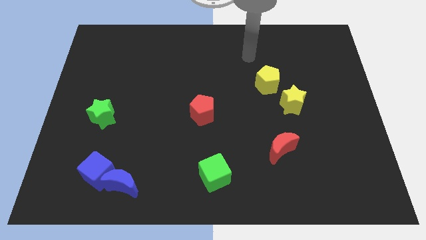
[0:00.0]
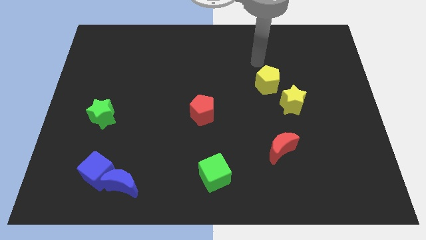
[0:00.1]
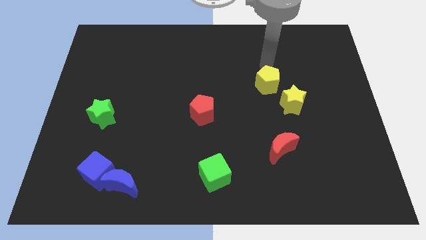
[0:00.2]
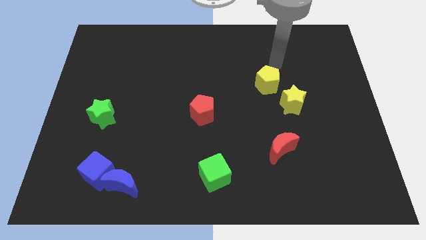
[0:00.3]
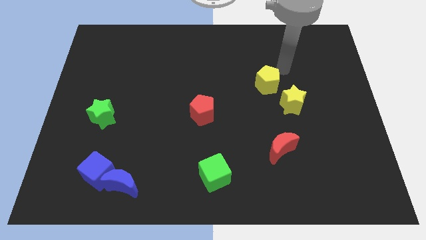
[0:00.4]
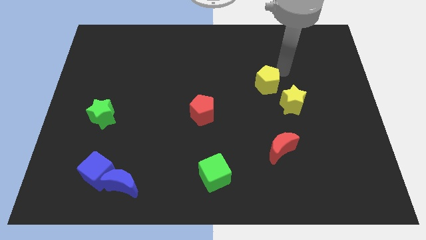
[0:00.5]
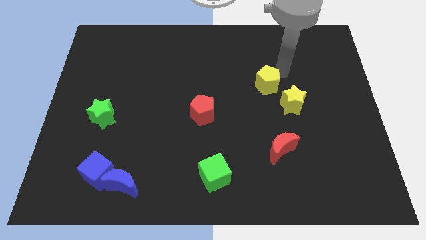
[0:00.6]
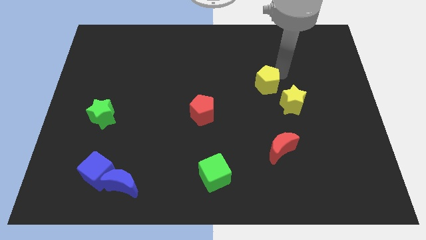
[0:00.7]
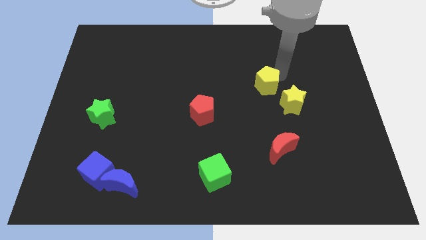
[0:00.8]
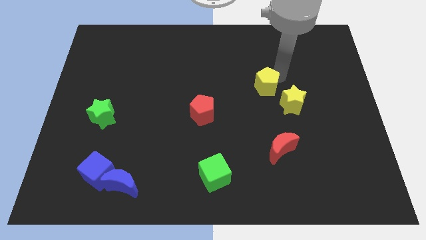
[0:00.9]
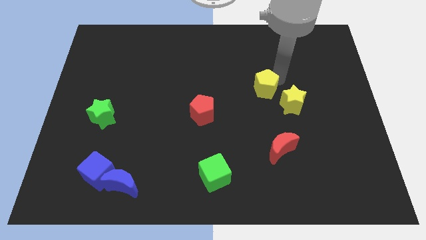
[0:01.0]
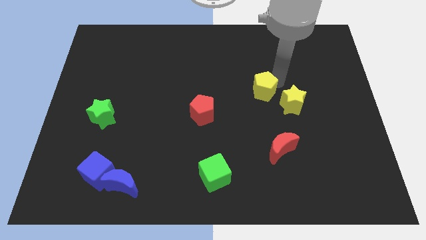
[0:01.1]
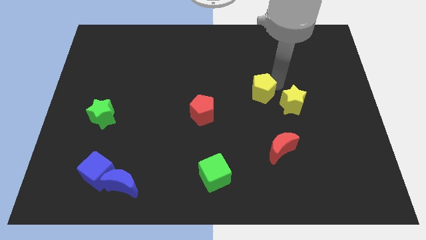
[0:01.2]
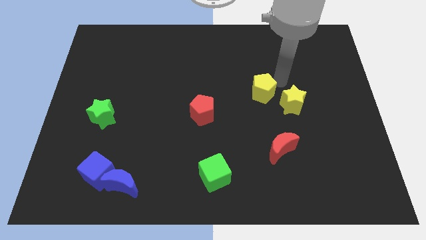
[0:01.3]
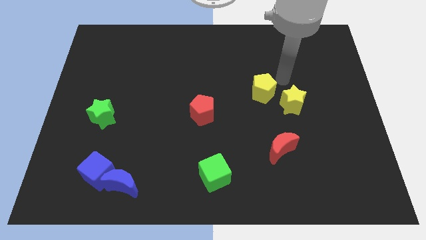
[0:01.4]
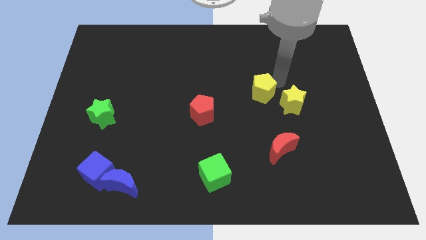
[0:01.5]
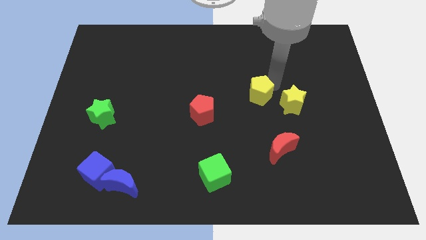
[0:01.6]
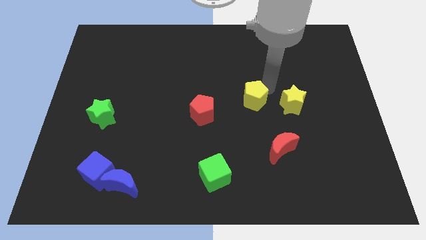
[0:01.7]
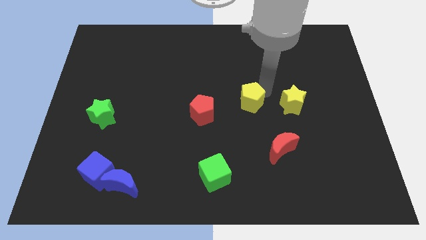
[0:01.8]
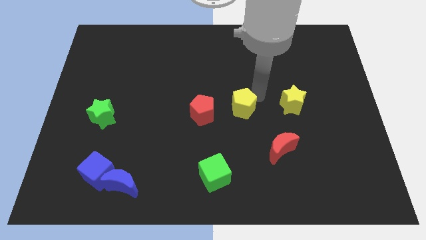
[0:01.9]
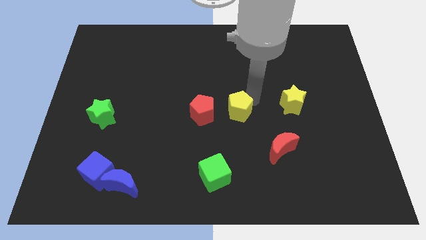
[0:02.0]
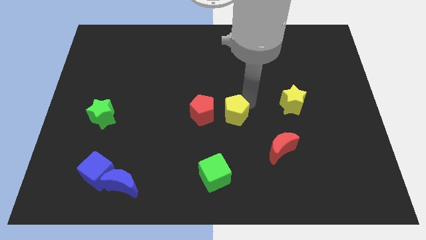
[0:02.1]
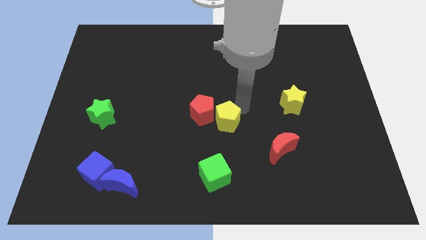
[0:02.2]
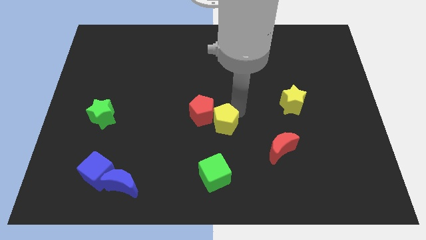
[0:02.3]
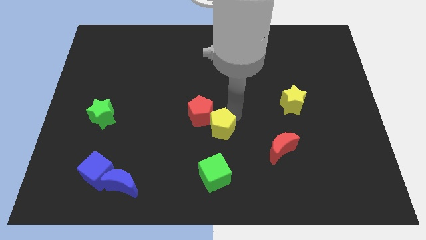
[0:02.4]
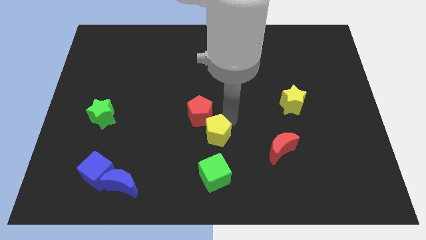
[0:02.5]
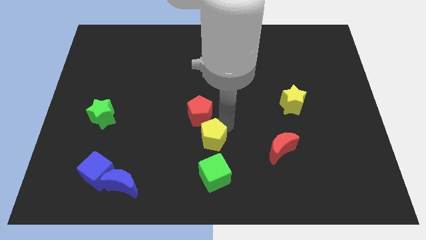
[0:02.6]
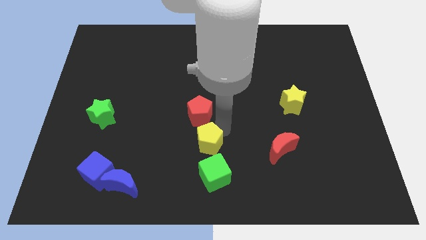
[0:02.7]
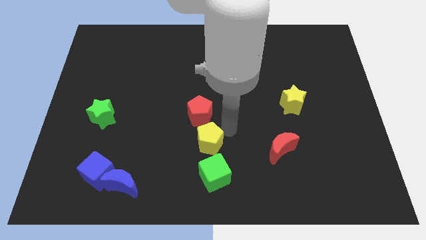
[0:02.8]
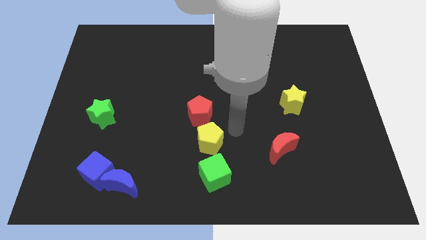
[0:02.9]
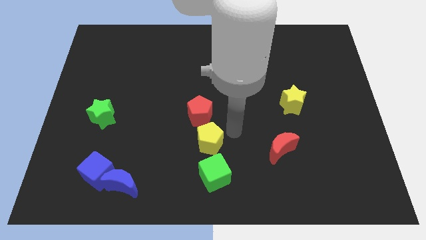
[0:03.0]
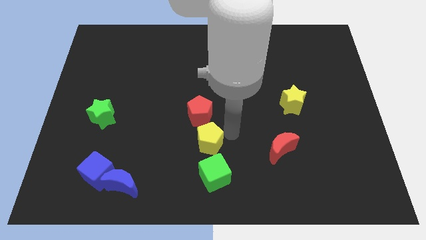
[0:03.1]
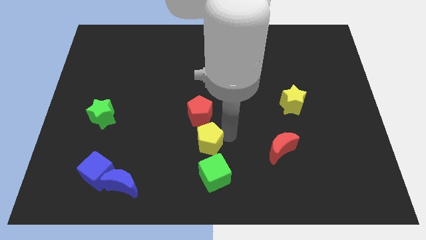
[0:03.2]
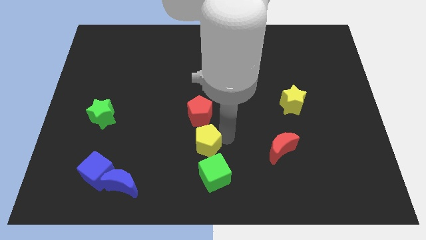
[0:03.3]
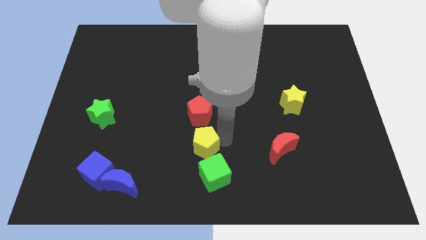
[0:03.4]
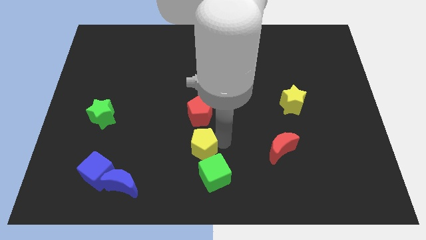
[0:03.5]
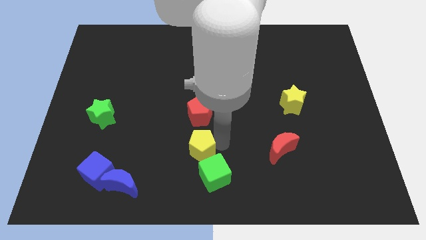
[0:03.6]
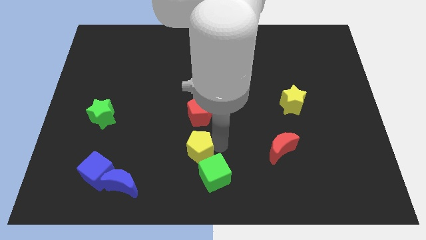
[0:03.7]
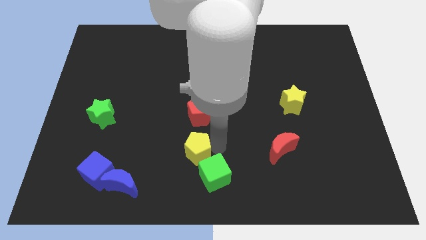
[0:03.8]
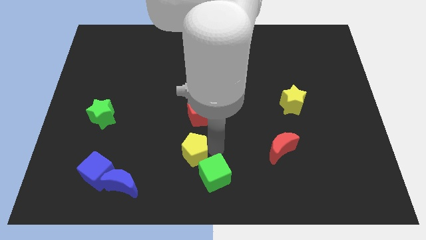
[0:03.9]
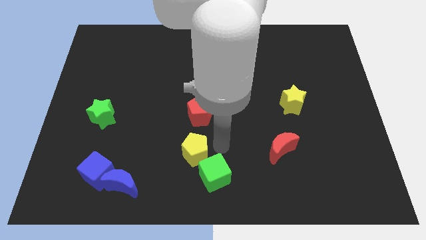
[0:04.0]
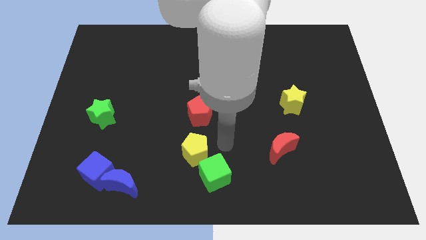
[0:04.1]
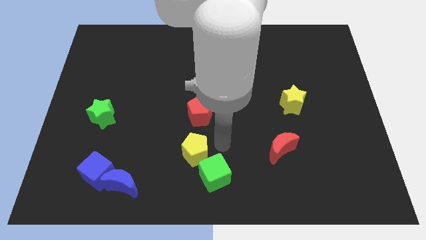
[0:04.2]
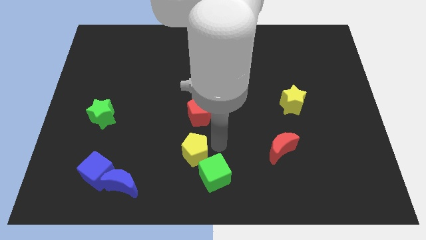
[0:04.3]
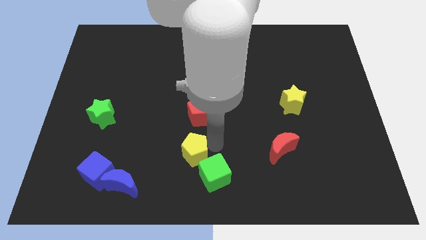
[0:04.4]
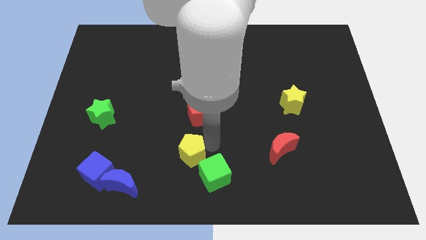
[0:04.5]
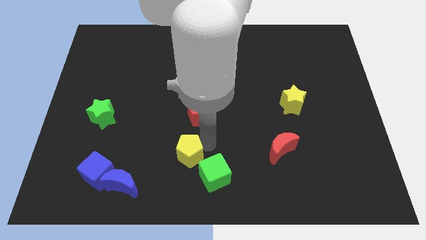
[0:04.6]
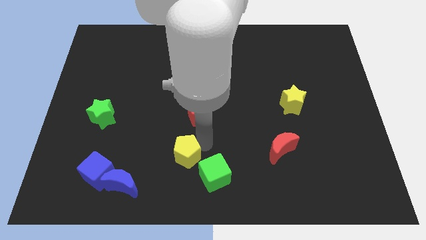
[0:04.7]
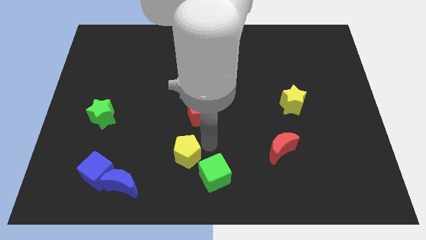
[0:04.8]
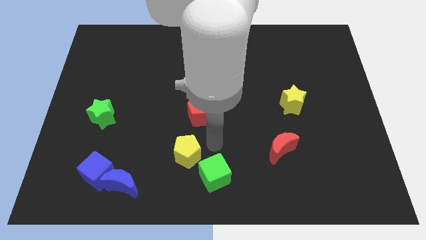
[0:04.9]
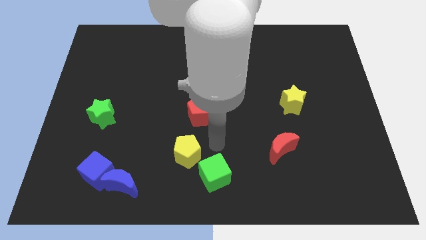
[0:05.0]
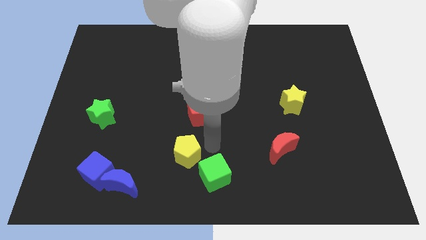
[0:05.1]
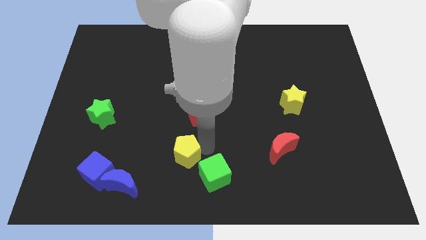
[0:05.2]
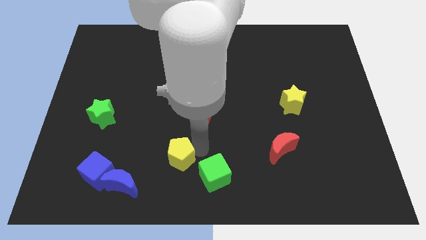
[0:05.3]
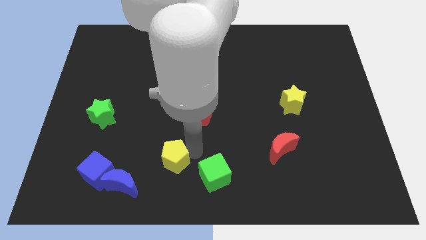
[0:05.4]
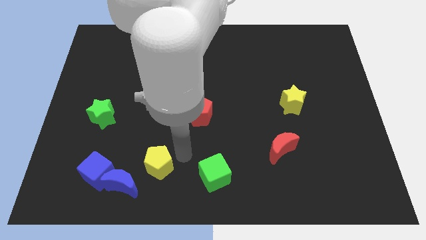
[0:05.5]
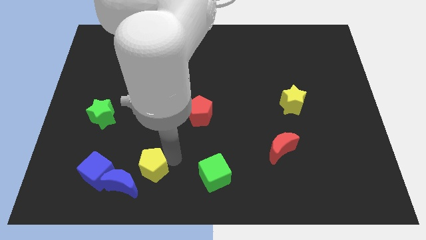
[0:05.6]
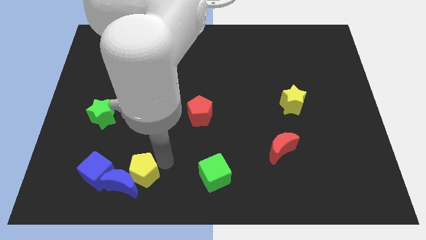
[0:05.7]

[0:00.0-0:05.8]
push the yellow pentagon towards the blue moon

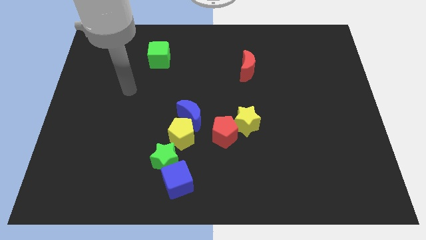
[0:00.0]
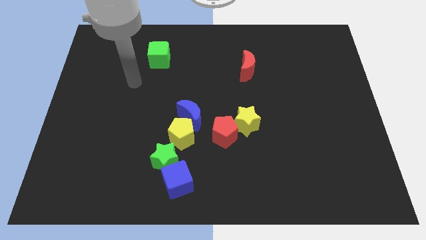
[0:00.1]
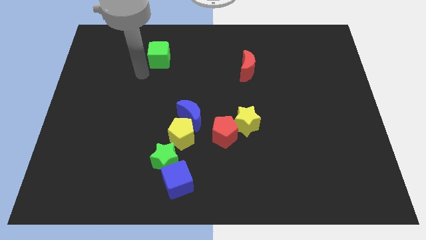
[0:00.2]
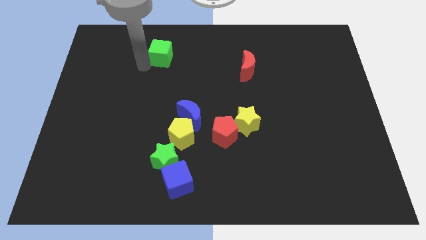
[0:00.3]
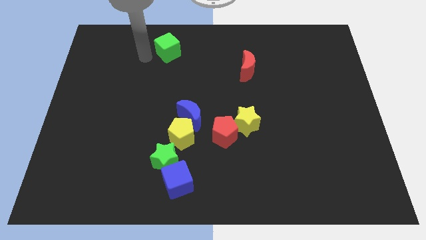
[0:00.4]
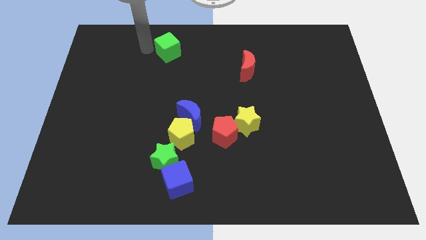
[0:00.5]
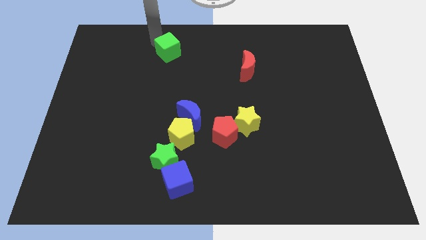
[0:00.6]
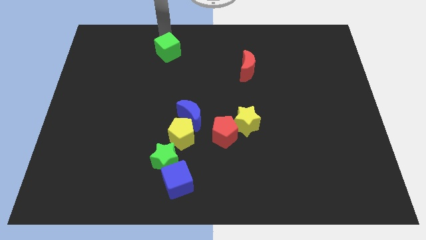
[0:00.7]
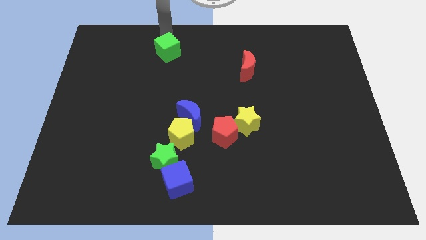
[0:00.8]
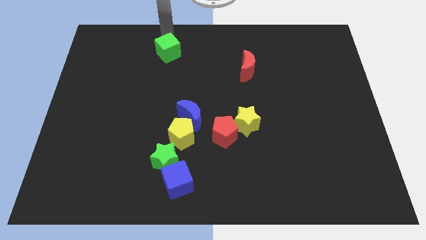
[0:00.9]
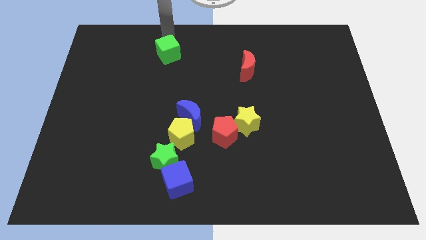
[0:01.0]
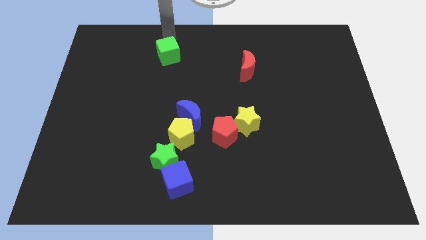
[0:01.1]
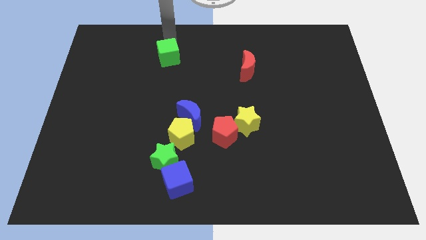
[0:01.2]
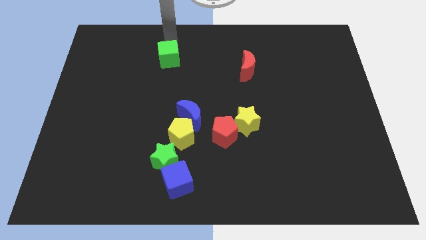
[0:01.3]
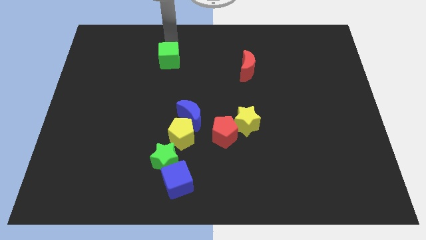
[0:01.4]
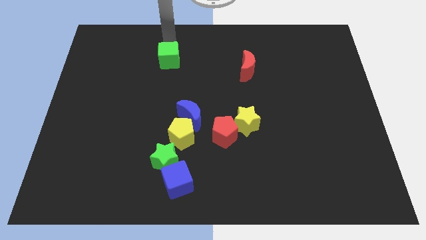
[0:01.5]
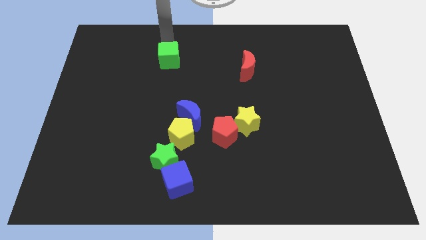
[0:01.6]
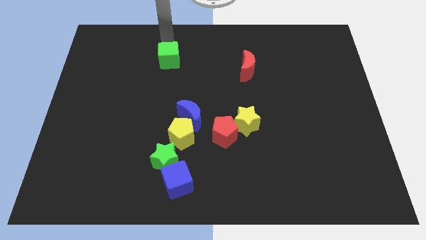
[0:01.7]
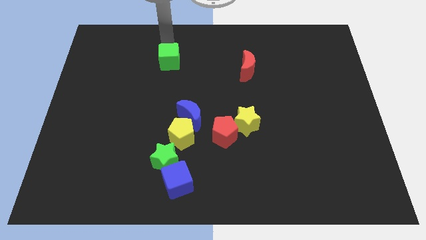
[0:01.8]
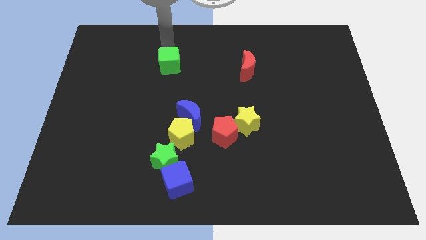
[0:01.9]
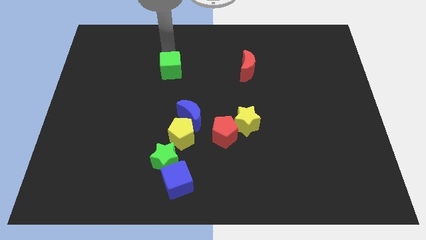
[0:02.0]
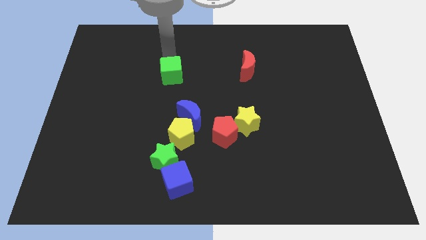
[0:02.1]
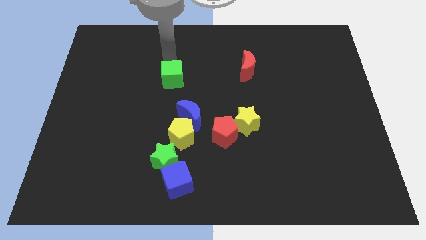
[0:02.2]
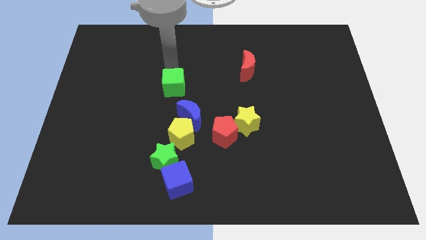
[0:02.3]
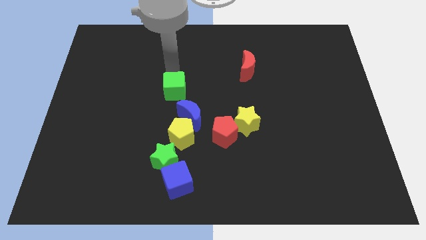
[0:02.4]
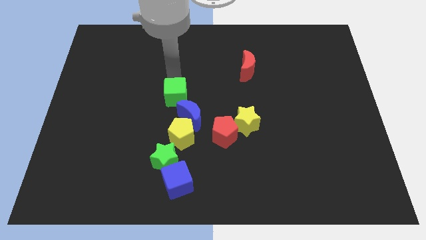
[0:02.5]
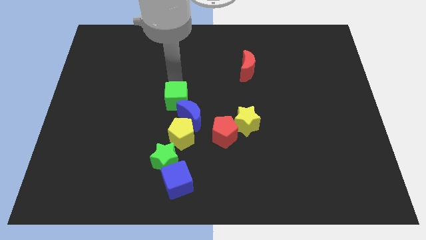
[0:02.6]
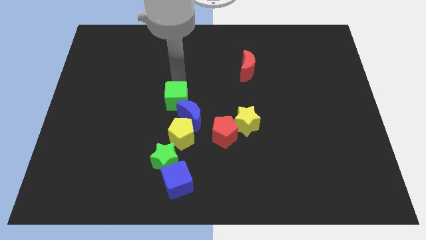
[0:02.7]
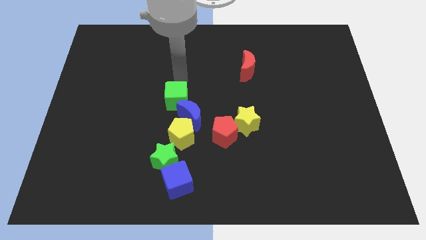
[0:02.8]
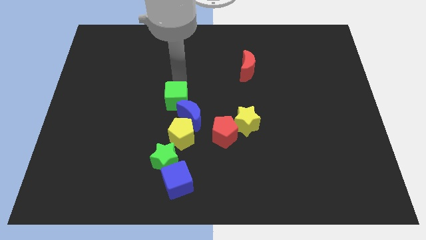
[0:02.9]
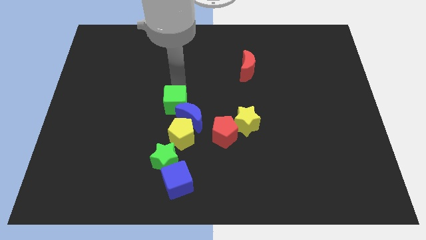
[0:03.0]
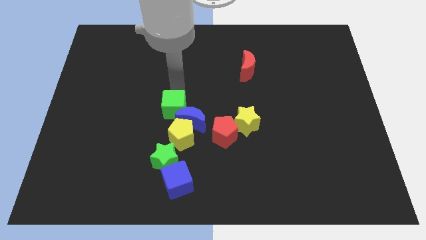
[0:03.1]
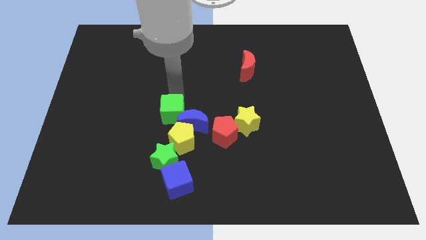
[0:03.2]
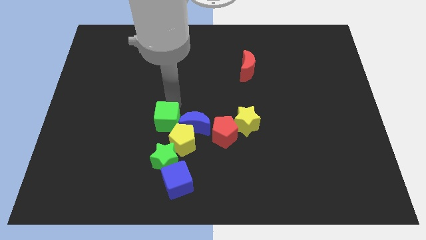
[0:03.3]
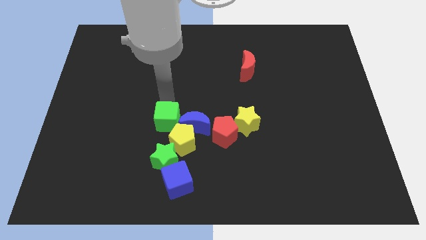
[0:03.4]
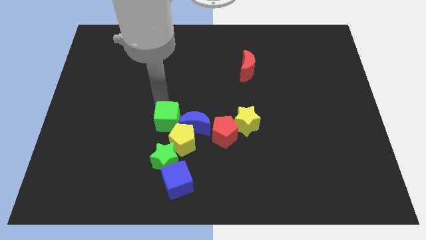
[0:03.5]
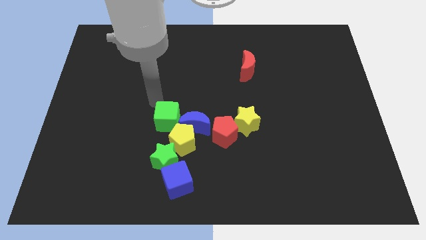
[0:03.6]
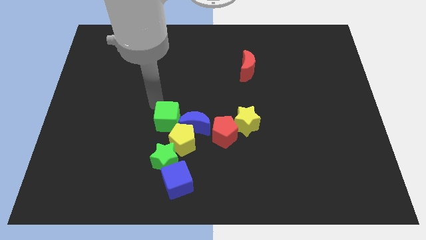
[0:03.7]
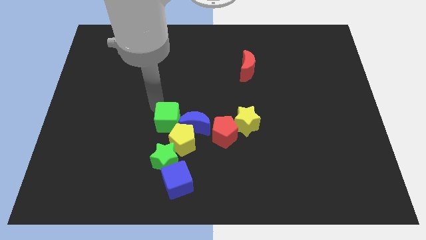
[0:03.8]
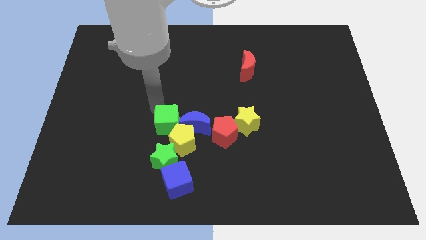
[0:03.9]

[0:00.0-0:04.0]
move the green cube close to the yellow pentagon
